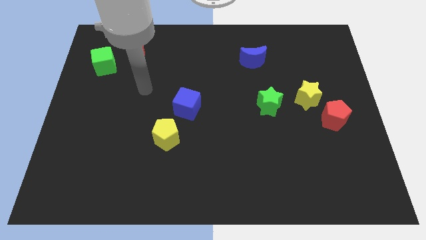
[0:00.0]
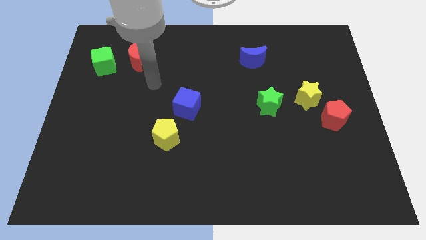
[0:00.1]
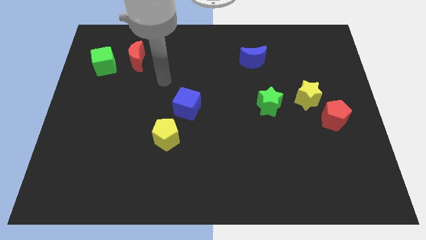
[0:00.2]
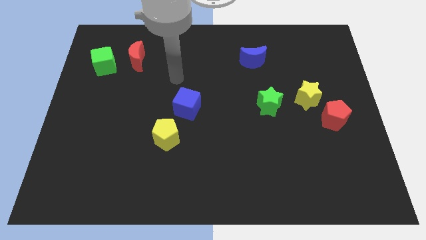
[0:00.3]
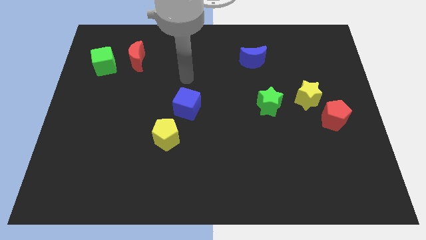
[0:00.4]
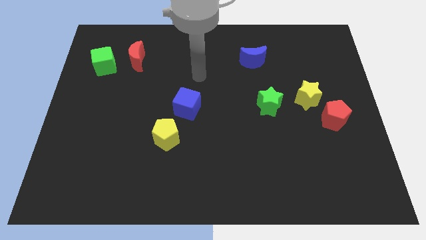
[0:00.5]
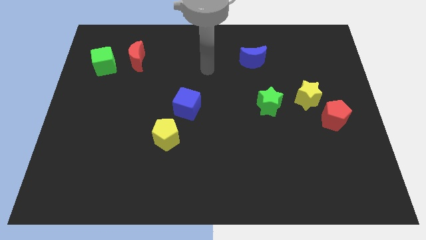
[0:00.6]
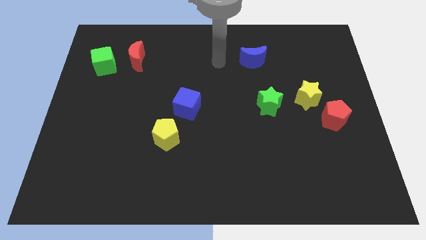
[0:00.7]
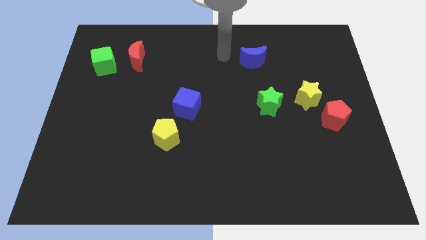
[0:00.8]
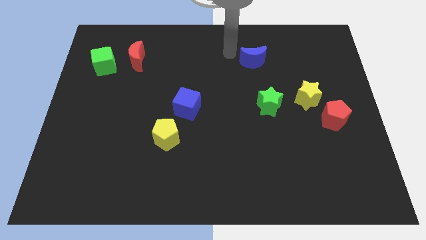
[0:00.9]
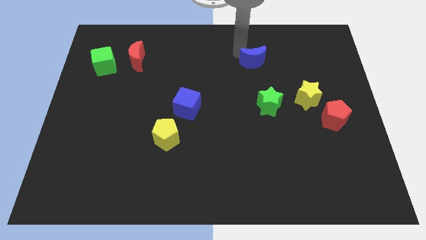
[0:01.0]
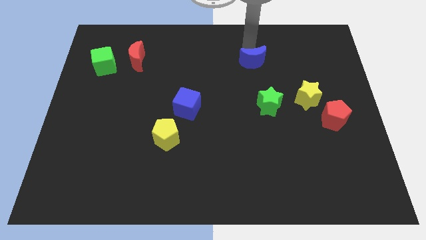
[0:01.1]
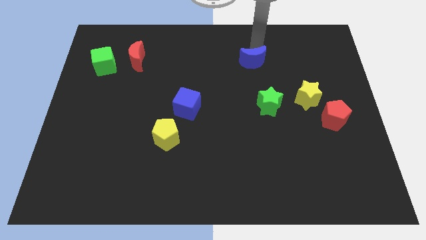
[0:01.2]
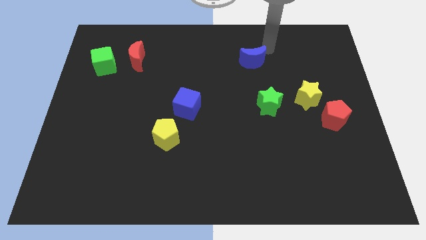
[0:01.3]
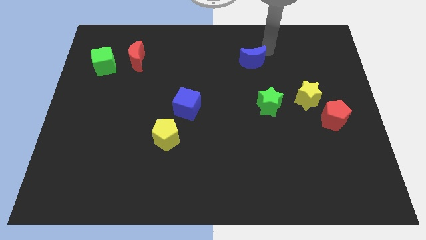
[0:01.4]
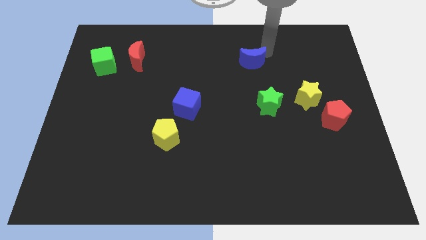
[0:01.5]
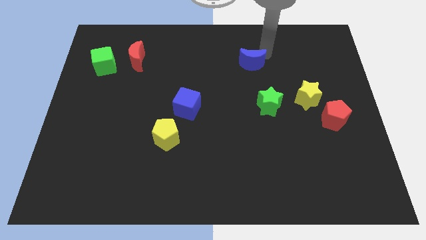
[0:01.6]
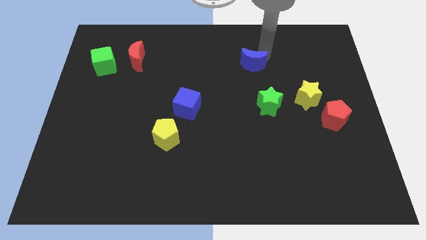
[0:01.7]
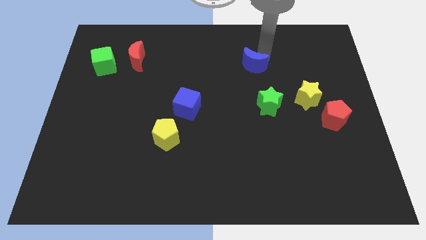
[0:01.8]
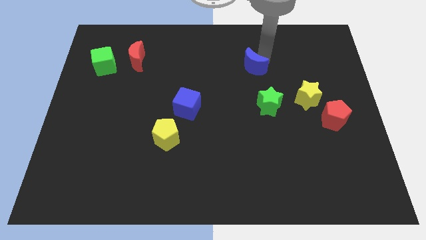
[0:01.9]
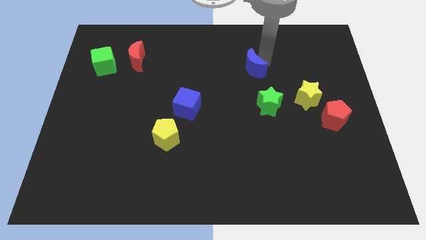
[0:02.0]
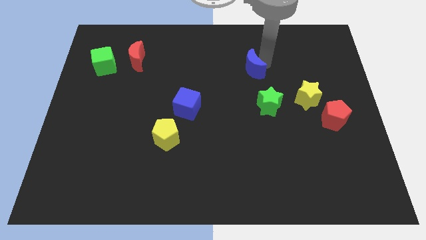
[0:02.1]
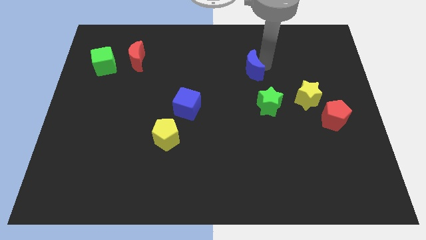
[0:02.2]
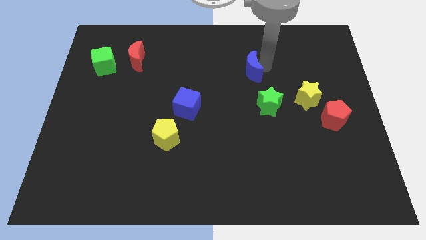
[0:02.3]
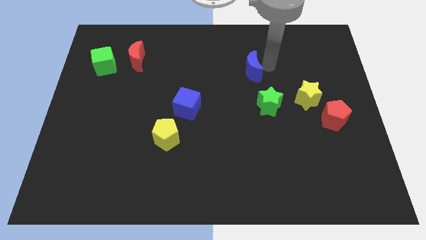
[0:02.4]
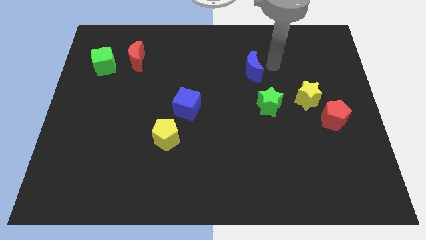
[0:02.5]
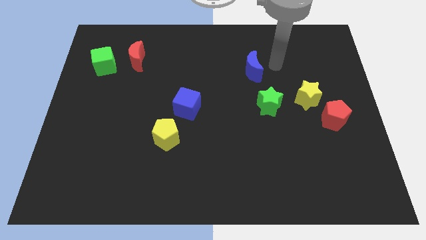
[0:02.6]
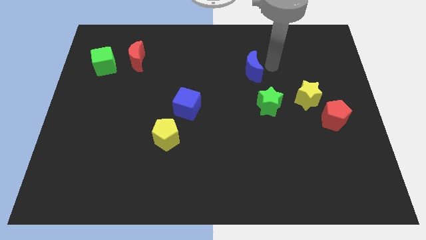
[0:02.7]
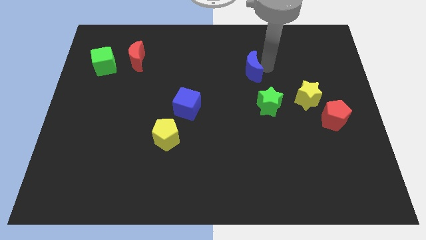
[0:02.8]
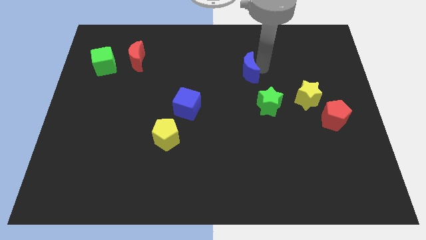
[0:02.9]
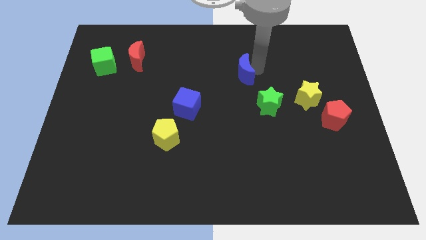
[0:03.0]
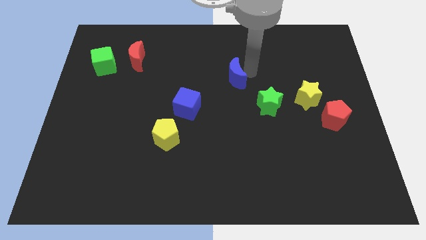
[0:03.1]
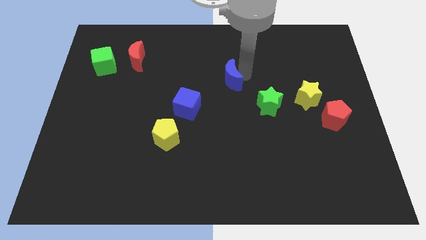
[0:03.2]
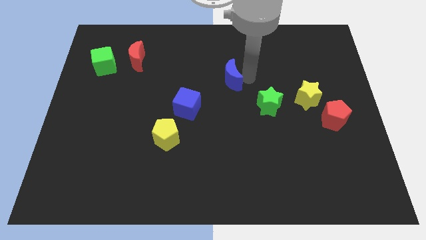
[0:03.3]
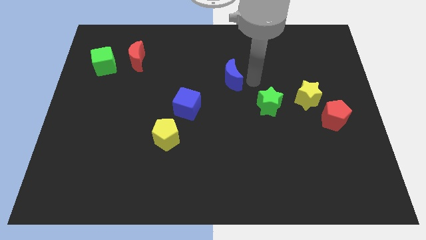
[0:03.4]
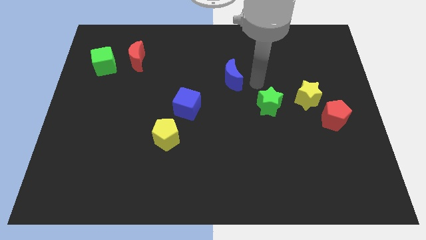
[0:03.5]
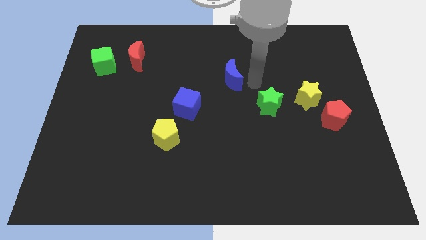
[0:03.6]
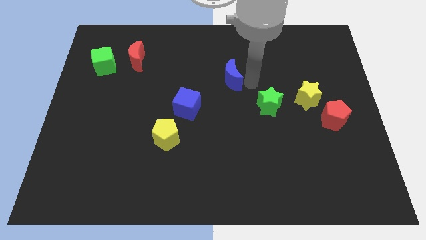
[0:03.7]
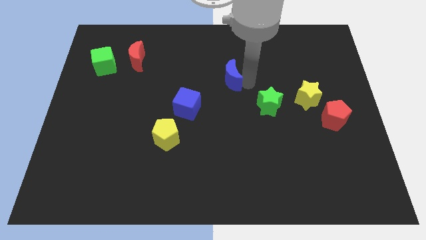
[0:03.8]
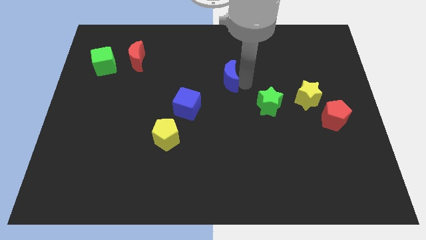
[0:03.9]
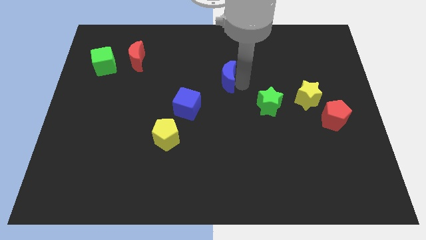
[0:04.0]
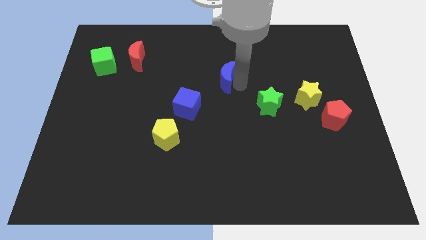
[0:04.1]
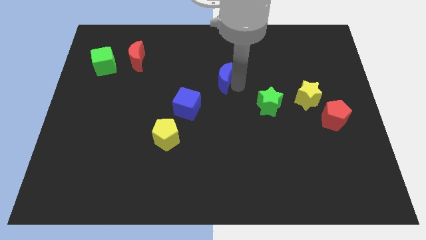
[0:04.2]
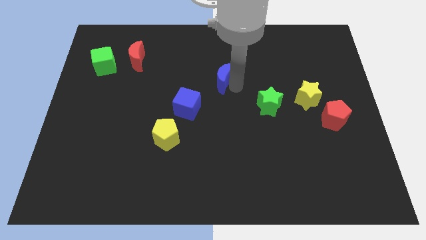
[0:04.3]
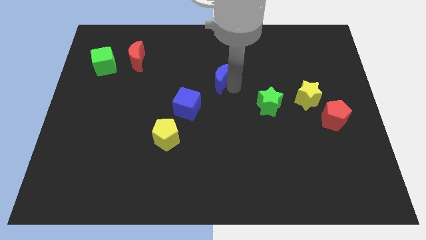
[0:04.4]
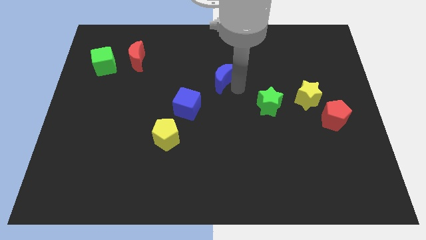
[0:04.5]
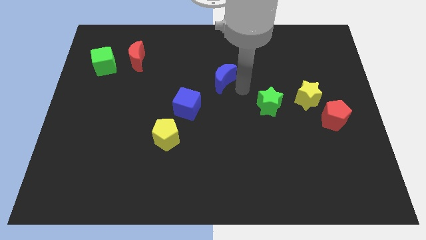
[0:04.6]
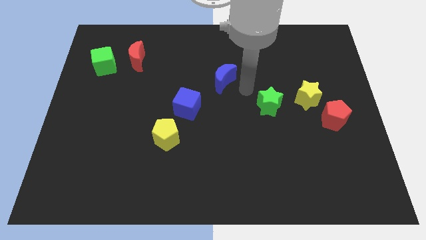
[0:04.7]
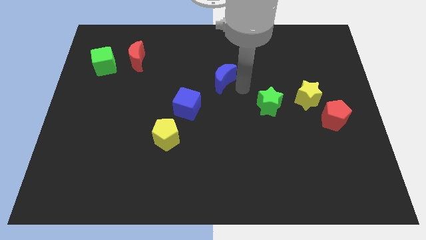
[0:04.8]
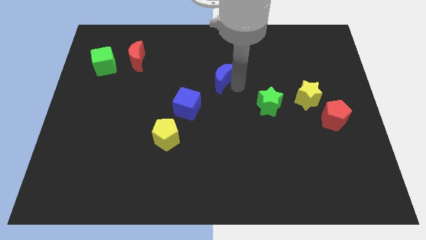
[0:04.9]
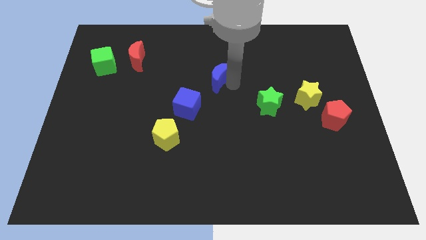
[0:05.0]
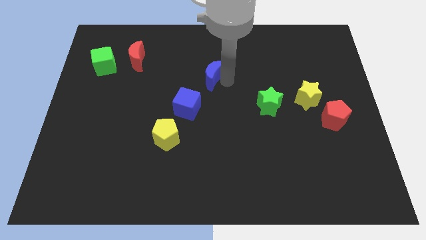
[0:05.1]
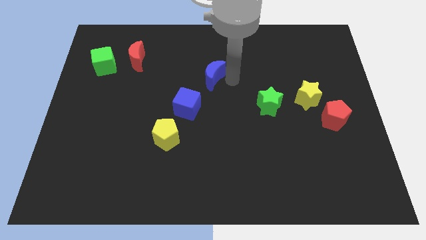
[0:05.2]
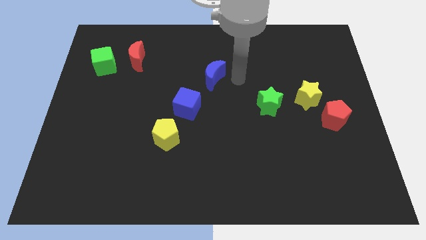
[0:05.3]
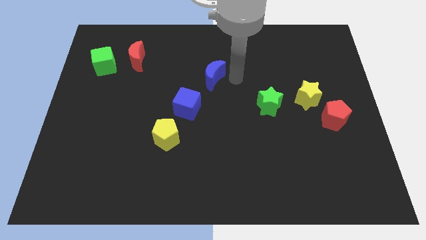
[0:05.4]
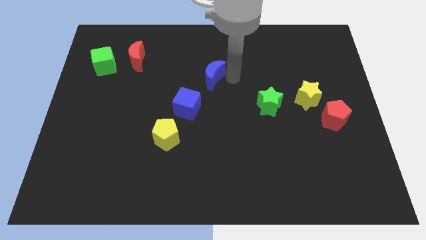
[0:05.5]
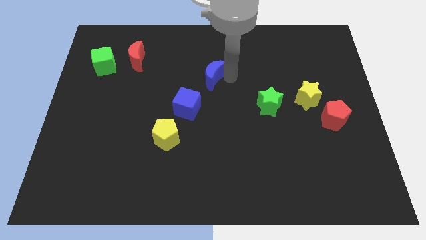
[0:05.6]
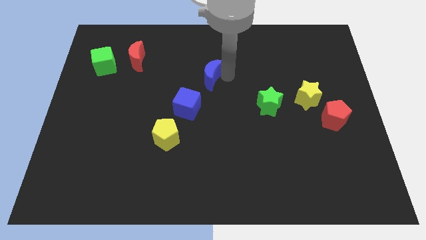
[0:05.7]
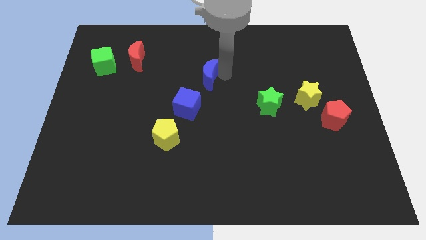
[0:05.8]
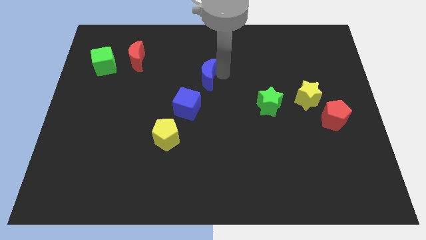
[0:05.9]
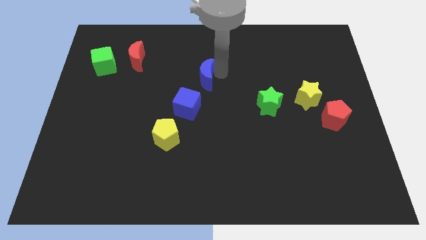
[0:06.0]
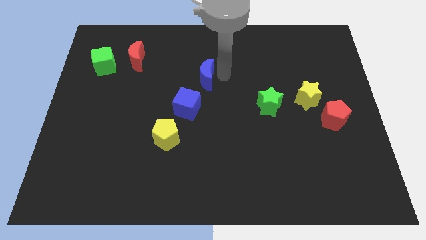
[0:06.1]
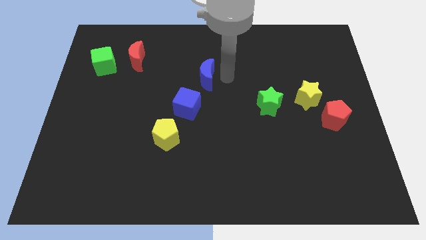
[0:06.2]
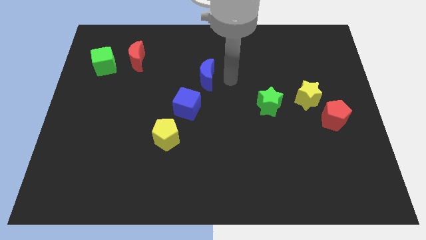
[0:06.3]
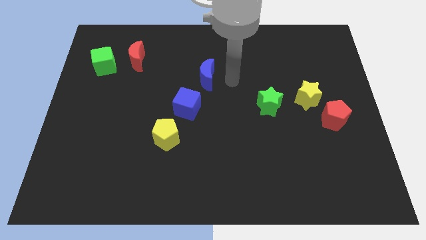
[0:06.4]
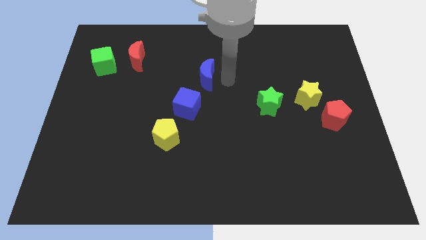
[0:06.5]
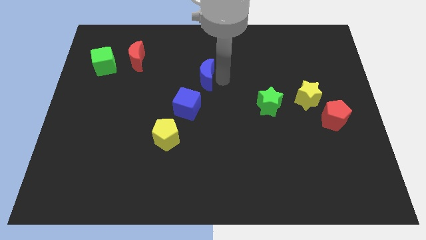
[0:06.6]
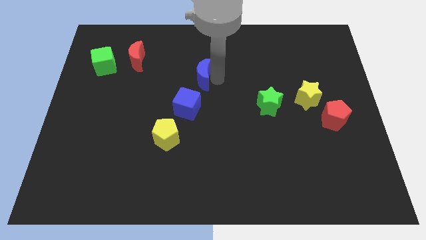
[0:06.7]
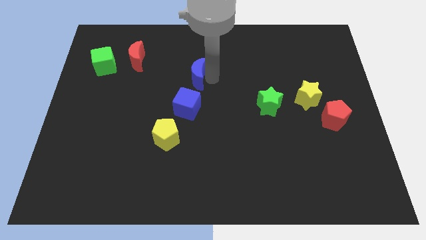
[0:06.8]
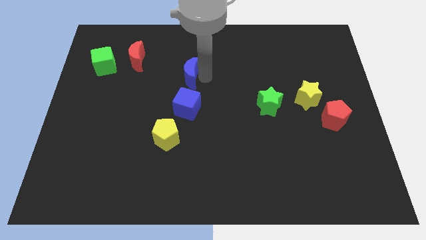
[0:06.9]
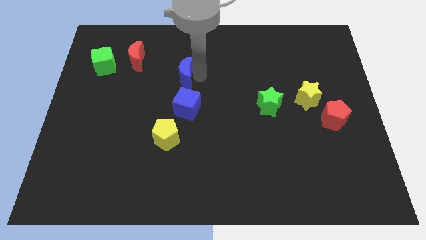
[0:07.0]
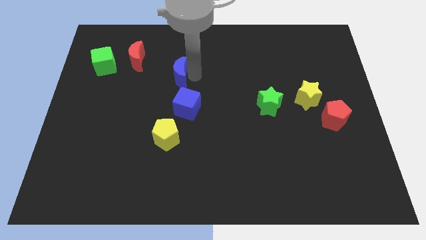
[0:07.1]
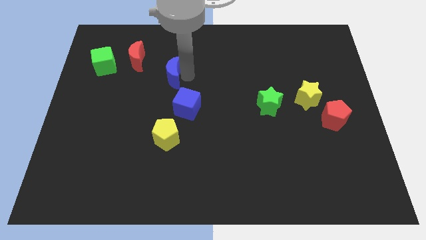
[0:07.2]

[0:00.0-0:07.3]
slide the blue moon to the bottom right side of the red moon

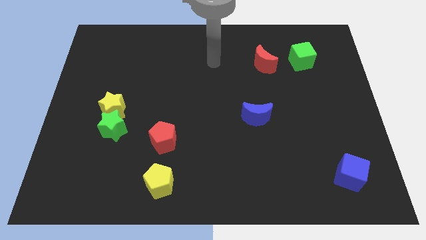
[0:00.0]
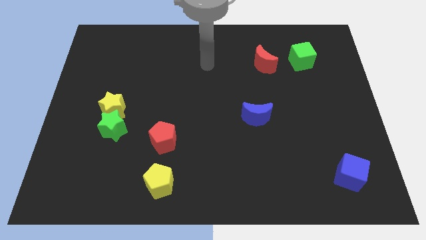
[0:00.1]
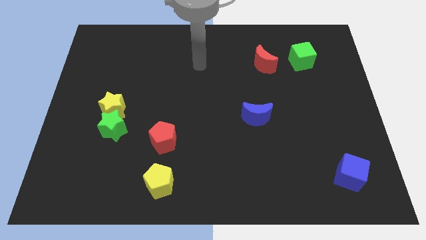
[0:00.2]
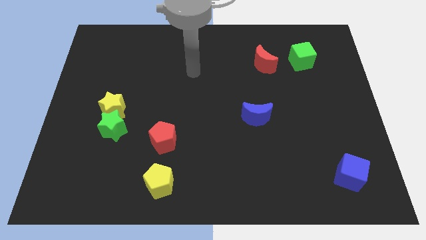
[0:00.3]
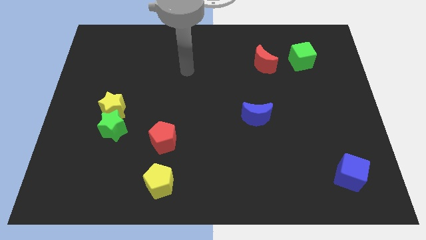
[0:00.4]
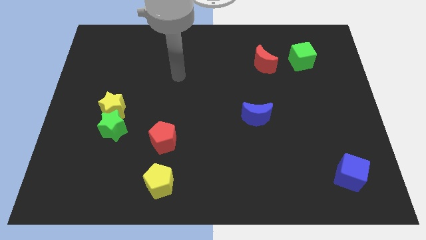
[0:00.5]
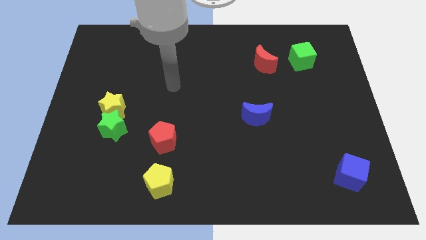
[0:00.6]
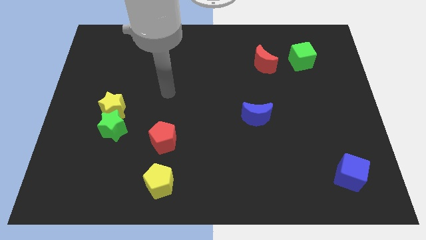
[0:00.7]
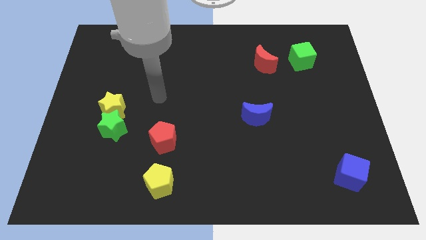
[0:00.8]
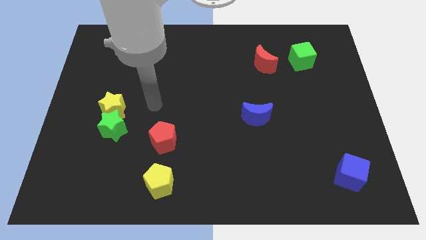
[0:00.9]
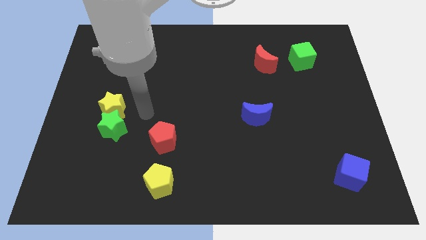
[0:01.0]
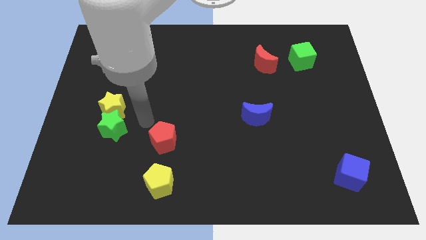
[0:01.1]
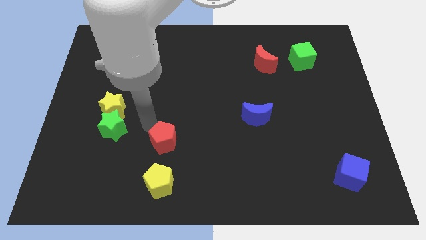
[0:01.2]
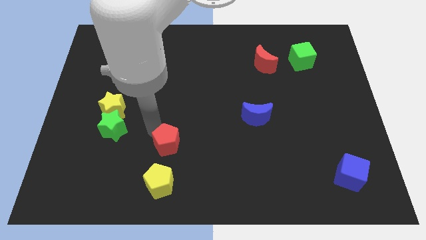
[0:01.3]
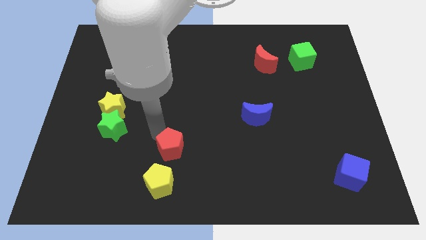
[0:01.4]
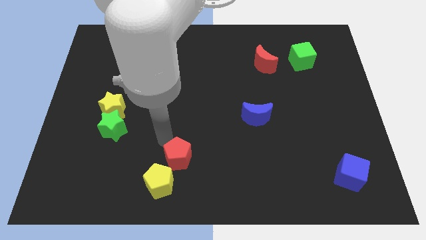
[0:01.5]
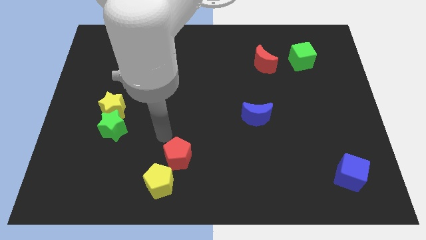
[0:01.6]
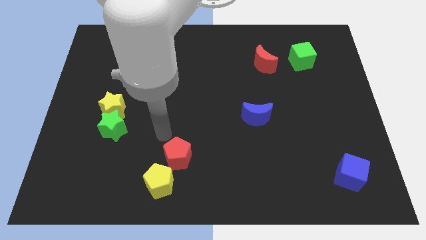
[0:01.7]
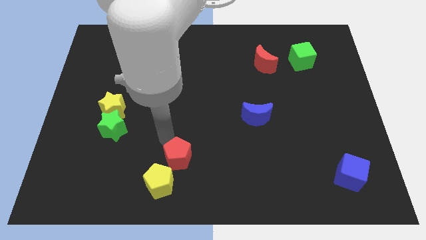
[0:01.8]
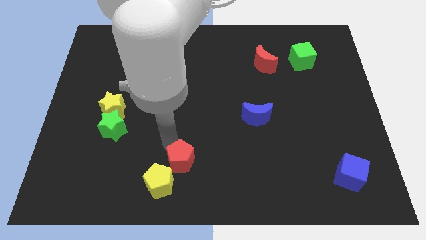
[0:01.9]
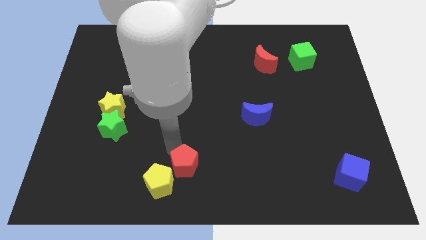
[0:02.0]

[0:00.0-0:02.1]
move the red pentagon to the right of the yellow pentagon
